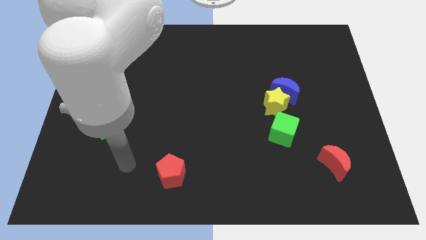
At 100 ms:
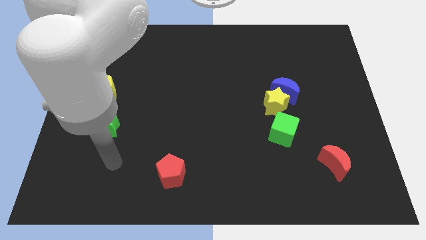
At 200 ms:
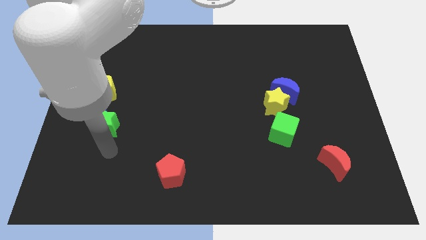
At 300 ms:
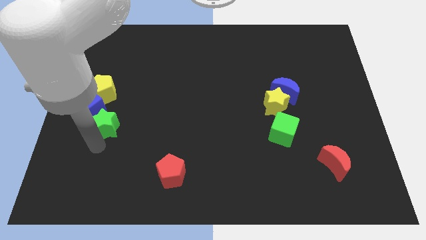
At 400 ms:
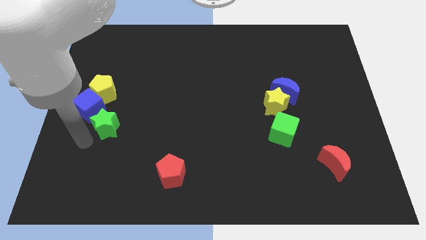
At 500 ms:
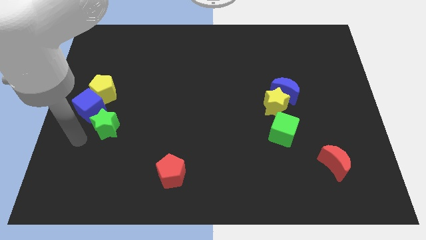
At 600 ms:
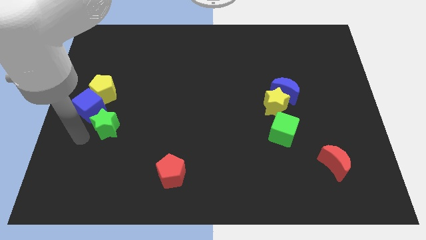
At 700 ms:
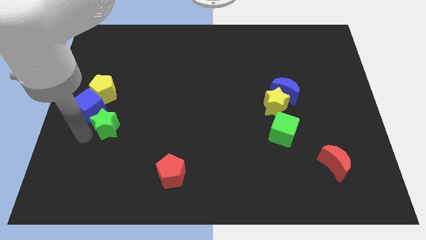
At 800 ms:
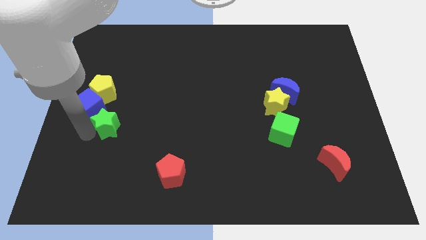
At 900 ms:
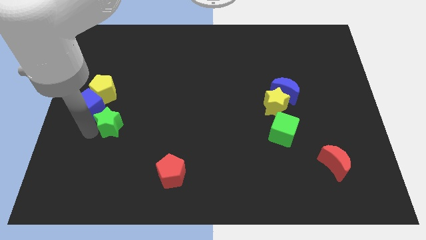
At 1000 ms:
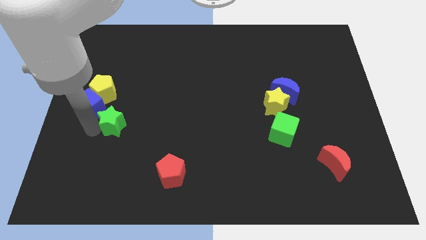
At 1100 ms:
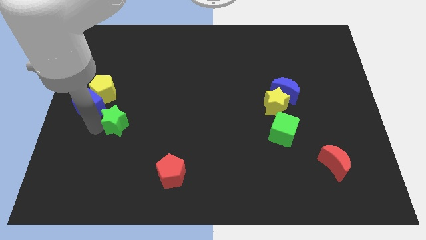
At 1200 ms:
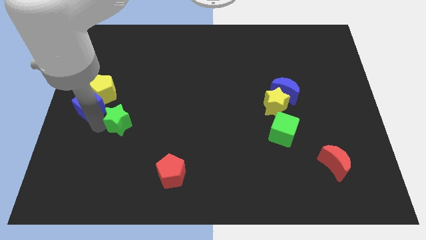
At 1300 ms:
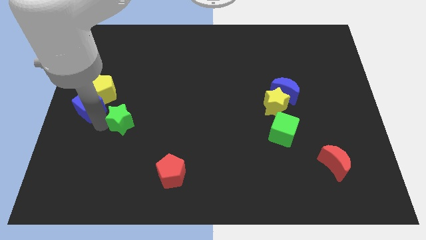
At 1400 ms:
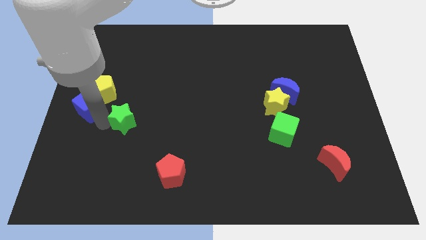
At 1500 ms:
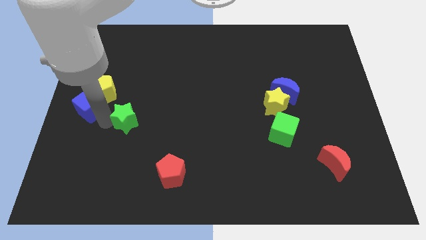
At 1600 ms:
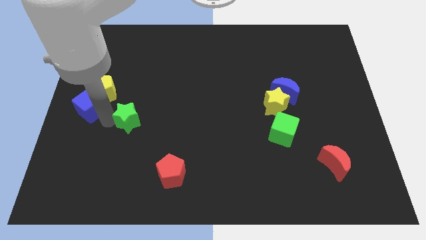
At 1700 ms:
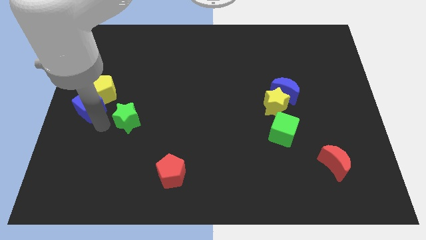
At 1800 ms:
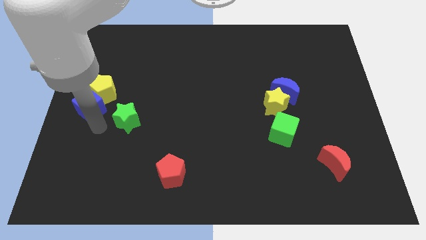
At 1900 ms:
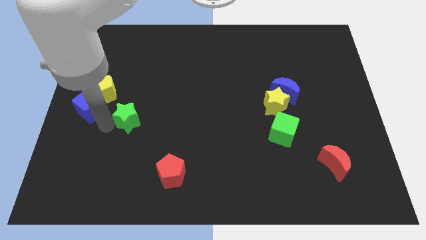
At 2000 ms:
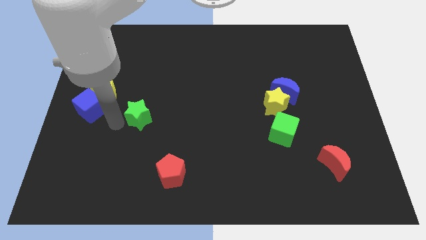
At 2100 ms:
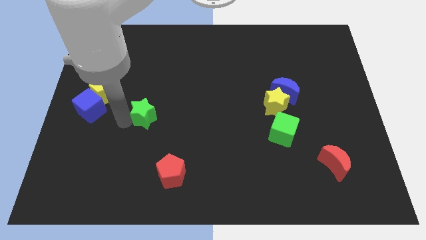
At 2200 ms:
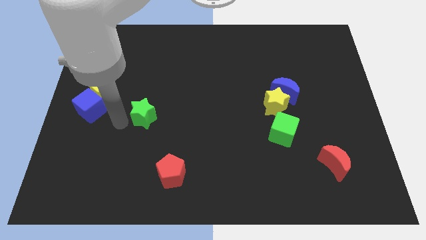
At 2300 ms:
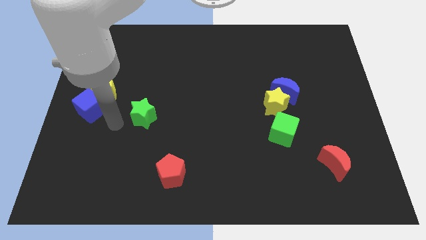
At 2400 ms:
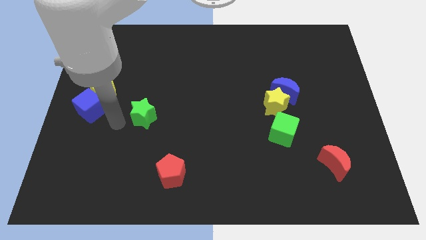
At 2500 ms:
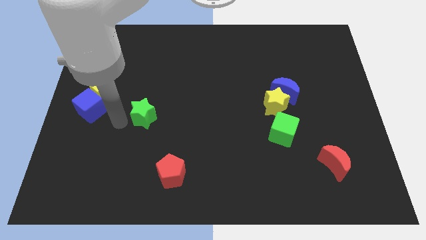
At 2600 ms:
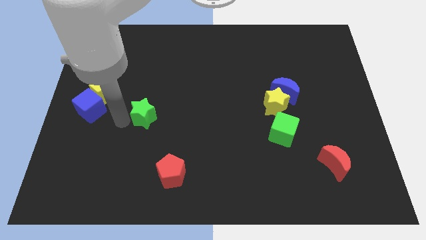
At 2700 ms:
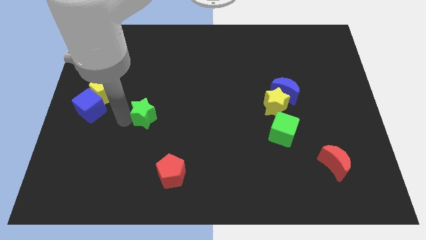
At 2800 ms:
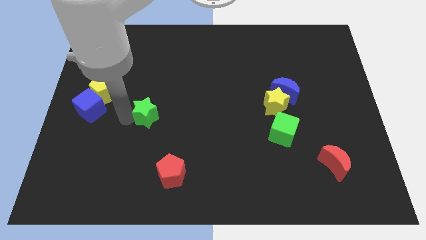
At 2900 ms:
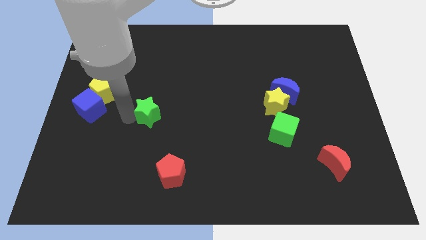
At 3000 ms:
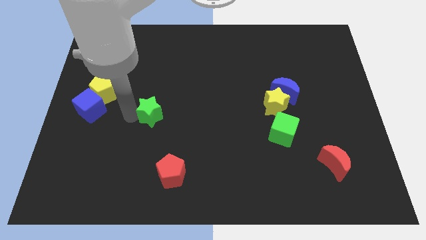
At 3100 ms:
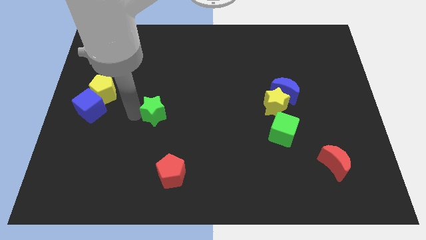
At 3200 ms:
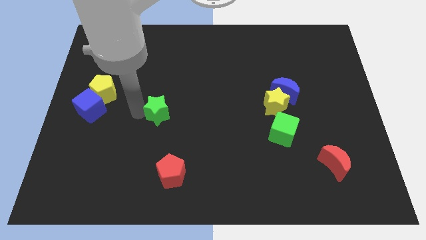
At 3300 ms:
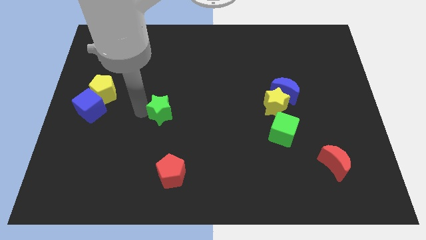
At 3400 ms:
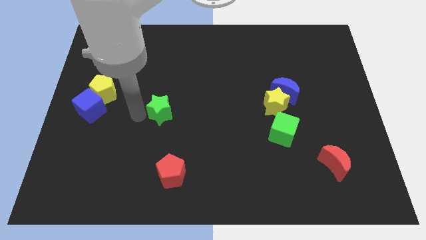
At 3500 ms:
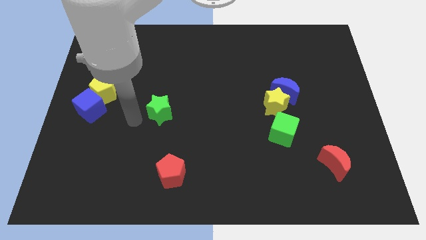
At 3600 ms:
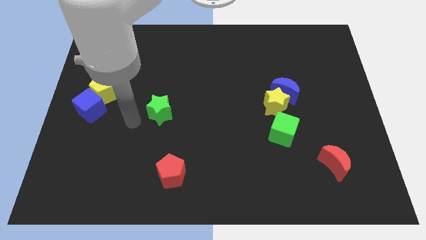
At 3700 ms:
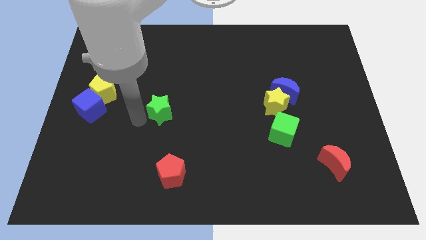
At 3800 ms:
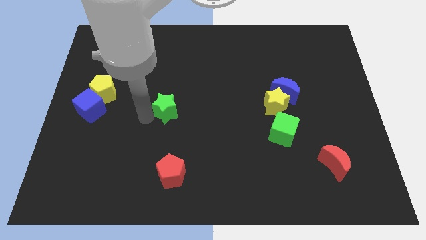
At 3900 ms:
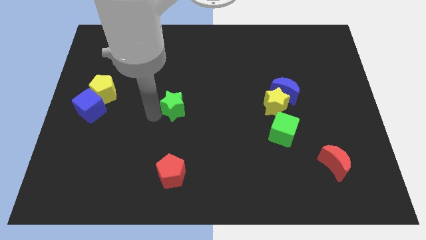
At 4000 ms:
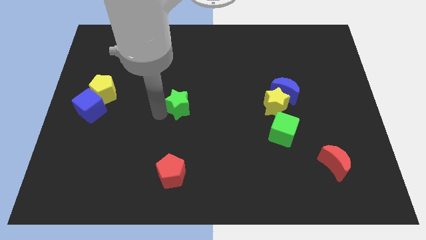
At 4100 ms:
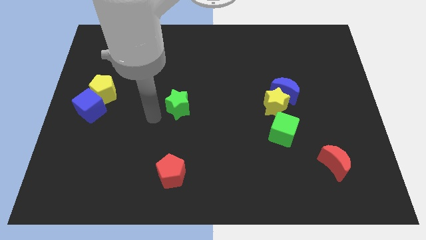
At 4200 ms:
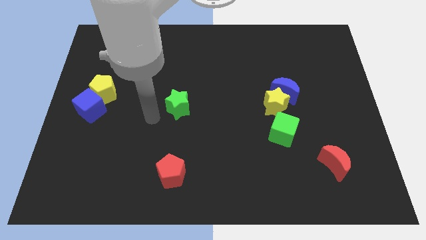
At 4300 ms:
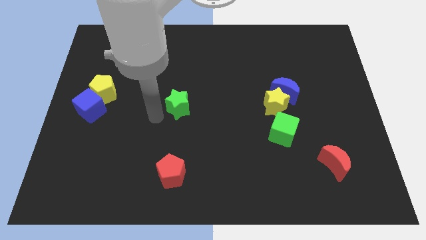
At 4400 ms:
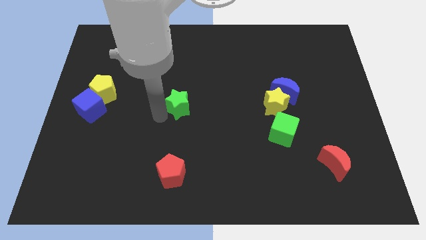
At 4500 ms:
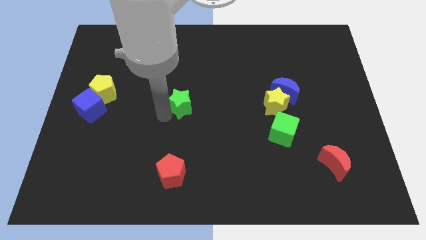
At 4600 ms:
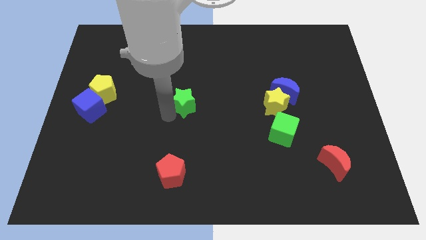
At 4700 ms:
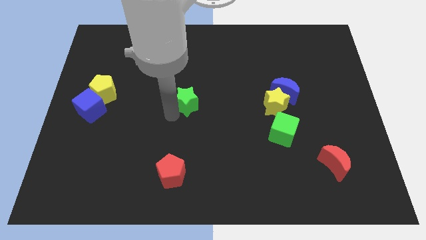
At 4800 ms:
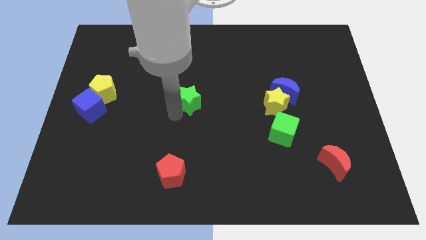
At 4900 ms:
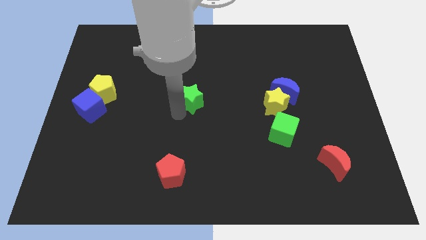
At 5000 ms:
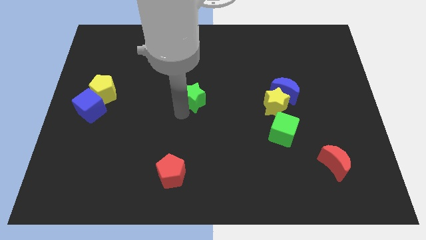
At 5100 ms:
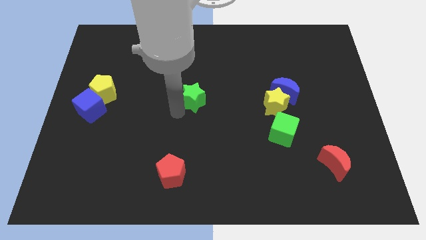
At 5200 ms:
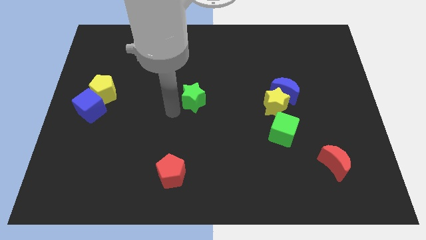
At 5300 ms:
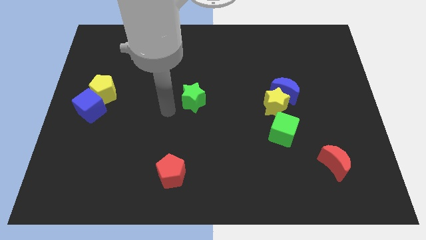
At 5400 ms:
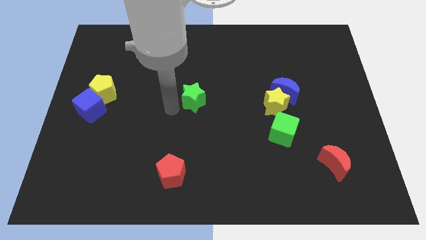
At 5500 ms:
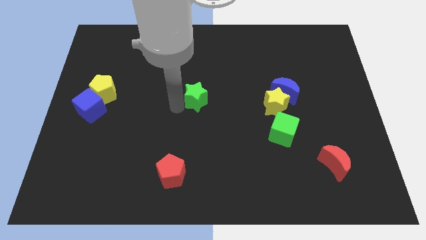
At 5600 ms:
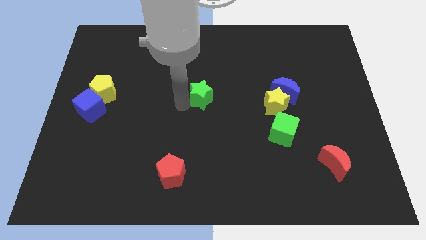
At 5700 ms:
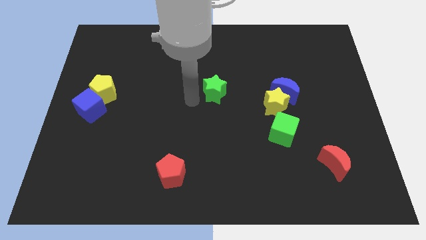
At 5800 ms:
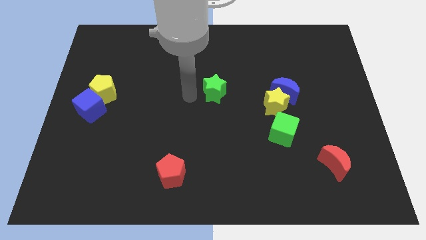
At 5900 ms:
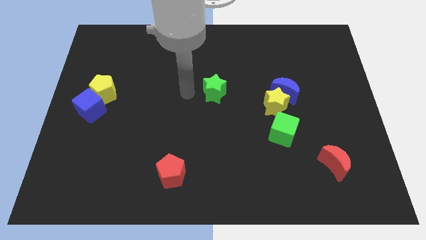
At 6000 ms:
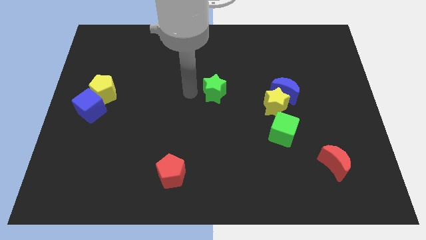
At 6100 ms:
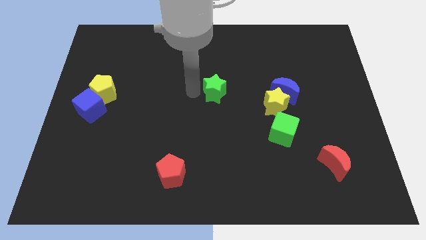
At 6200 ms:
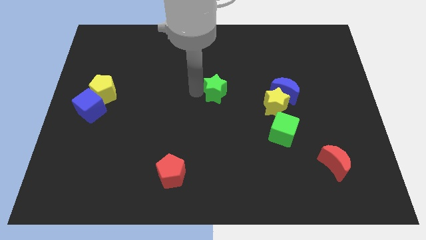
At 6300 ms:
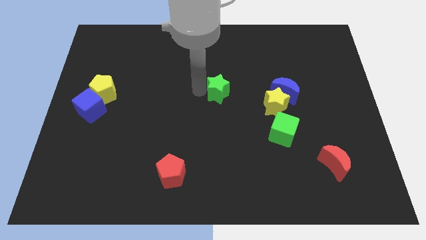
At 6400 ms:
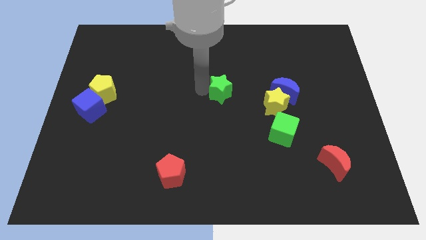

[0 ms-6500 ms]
slide the green star just left of the blue moon

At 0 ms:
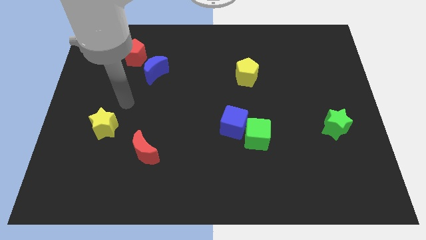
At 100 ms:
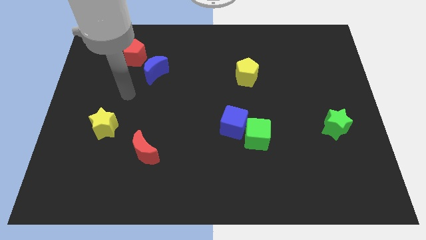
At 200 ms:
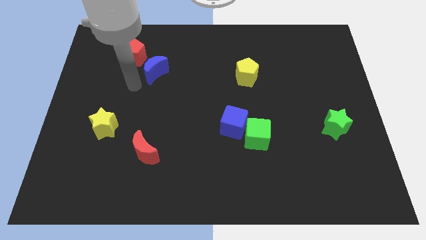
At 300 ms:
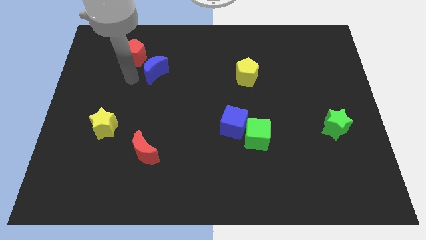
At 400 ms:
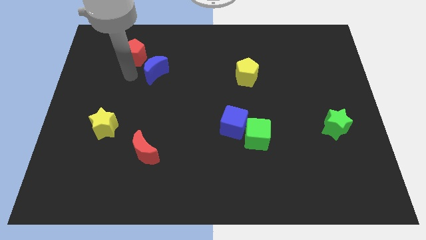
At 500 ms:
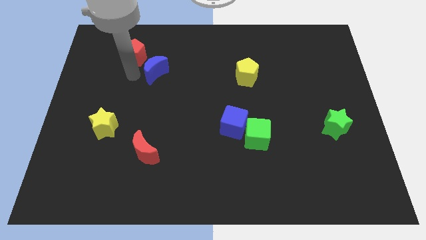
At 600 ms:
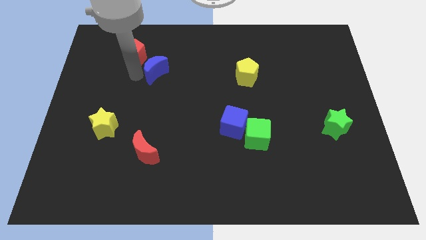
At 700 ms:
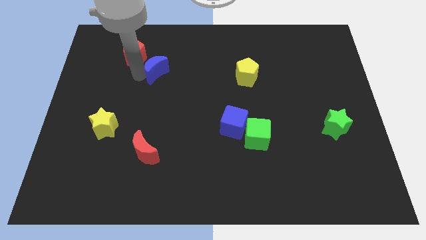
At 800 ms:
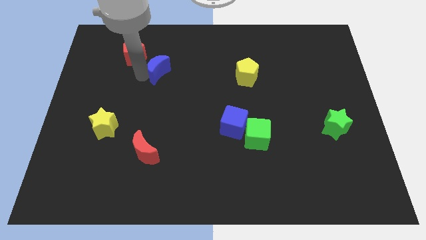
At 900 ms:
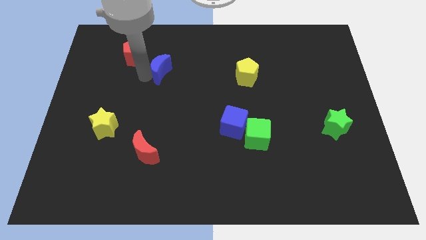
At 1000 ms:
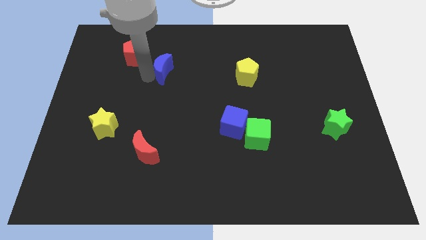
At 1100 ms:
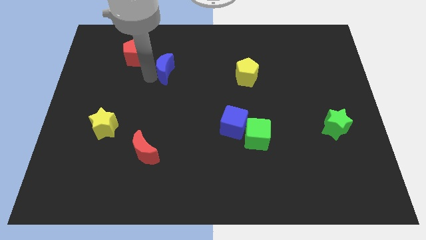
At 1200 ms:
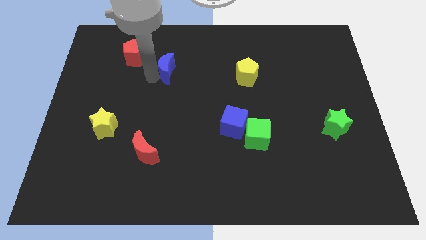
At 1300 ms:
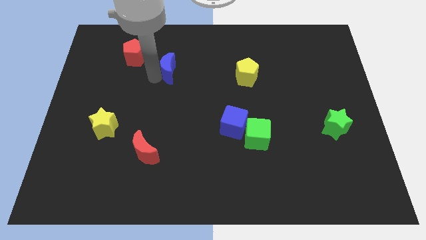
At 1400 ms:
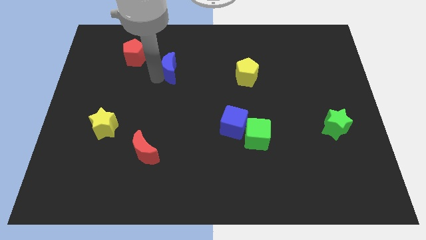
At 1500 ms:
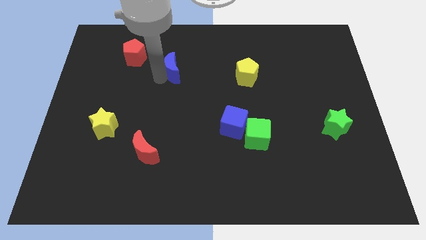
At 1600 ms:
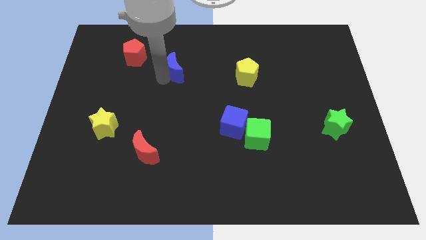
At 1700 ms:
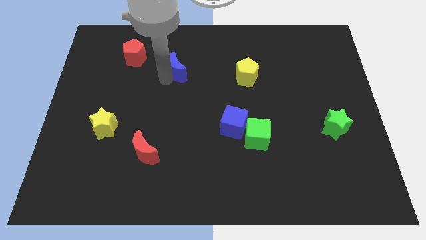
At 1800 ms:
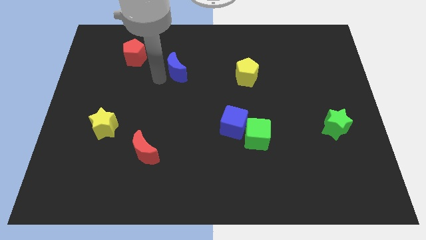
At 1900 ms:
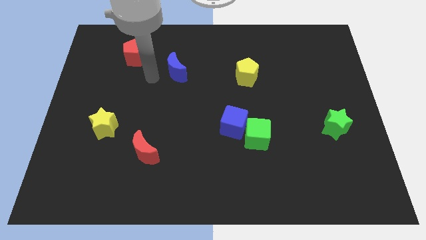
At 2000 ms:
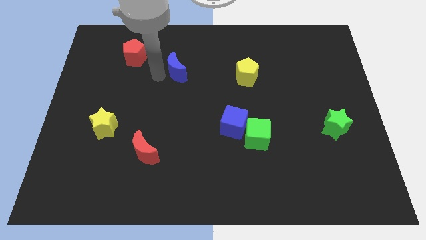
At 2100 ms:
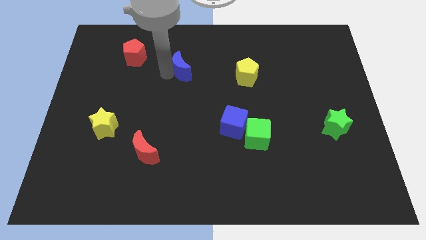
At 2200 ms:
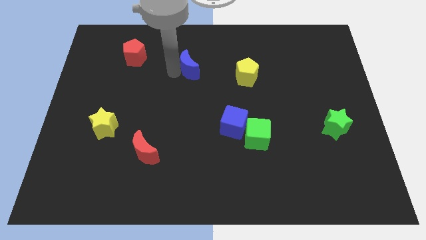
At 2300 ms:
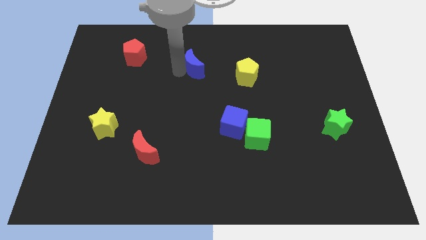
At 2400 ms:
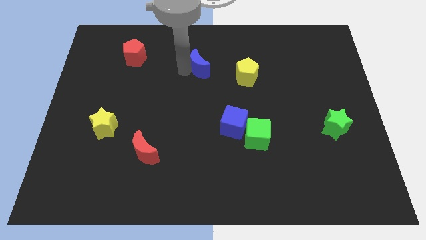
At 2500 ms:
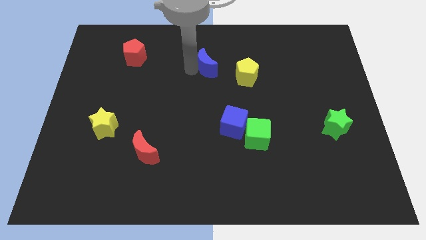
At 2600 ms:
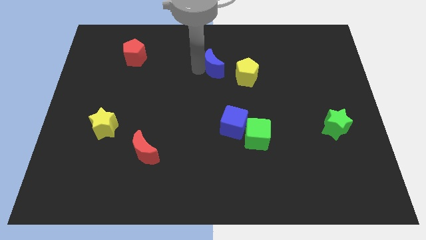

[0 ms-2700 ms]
slide the blue moon diagonally up and to the left of the yellow pentagon
